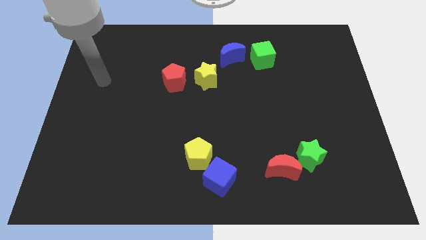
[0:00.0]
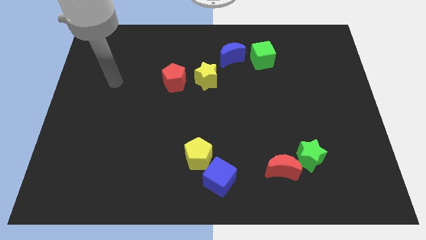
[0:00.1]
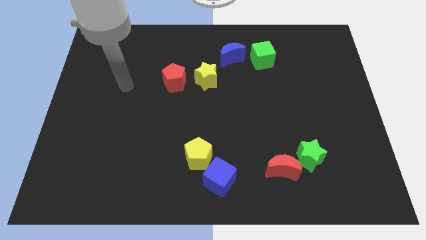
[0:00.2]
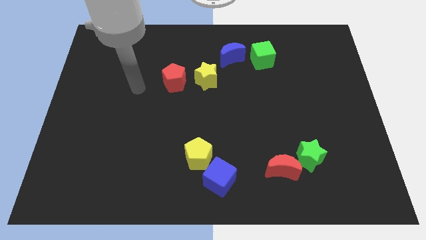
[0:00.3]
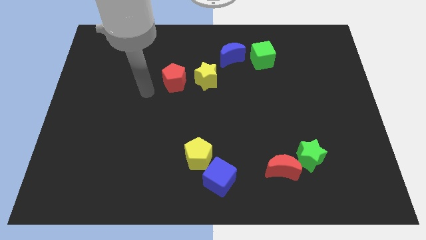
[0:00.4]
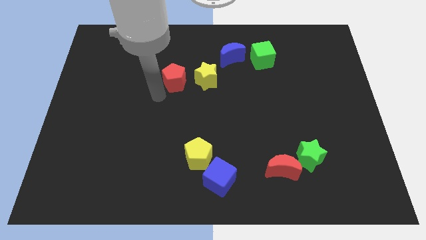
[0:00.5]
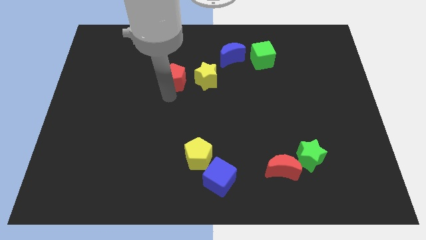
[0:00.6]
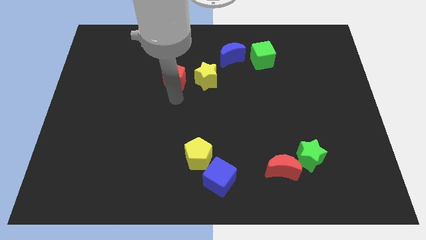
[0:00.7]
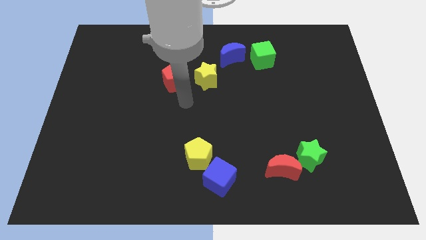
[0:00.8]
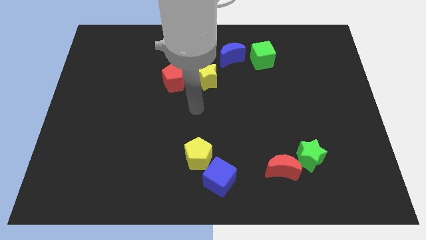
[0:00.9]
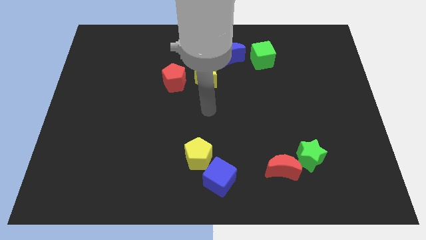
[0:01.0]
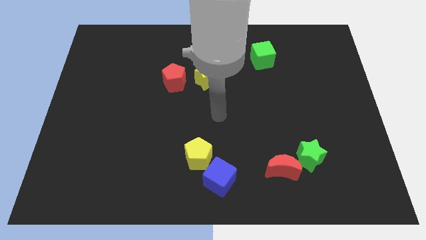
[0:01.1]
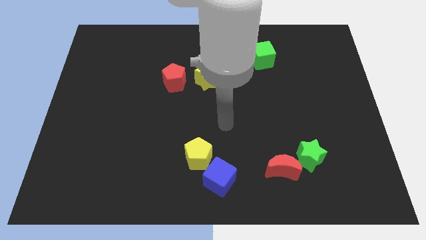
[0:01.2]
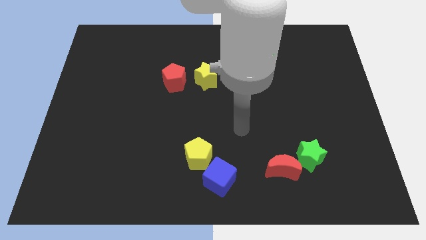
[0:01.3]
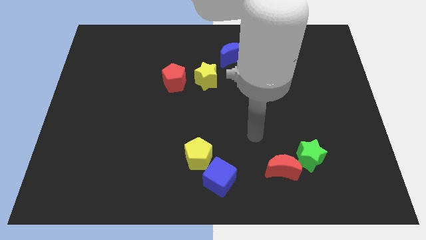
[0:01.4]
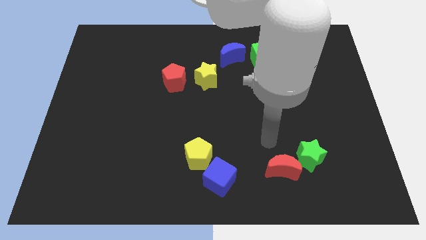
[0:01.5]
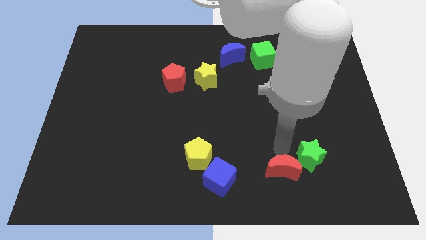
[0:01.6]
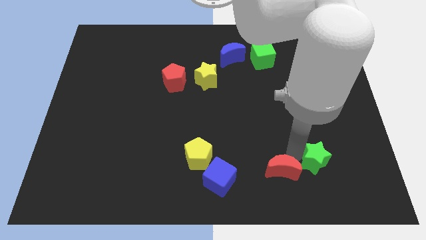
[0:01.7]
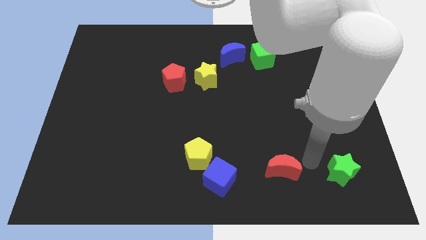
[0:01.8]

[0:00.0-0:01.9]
move the red moon away from the green star

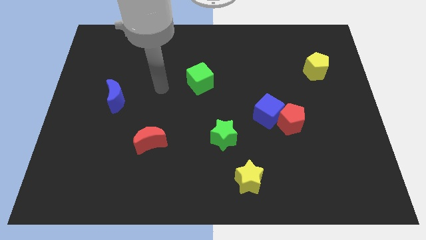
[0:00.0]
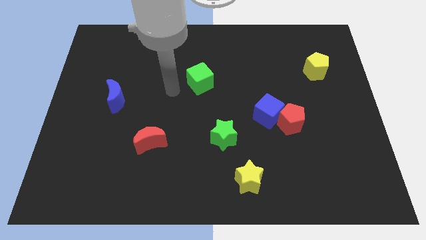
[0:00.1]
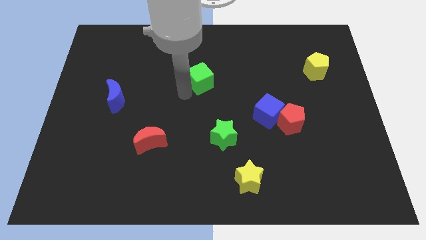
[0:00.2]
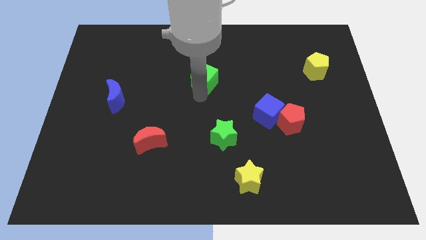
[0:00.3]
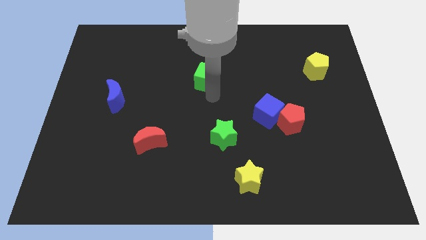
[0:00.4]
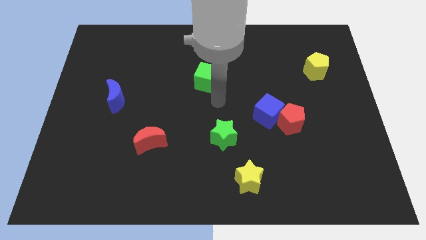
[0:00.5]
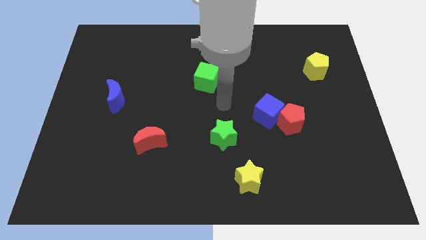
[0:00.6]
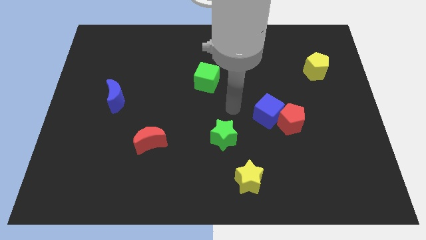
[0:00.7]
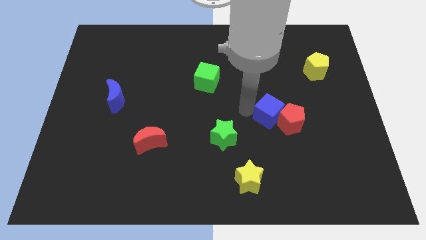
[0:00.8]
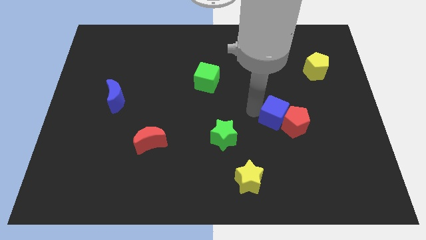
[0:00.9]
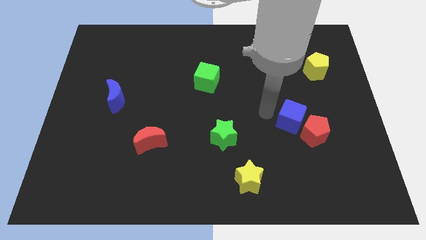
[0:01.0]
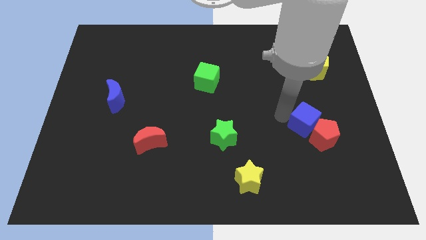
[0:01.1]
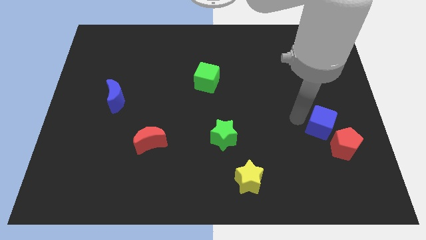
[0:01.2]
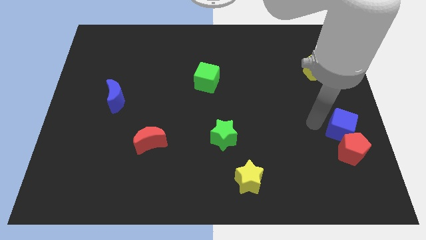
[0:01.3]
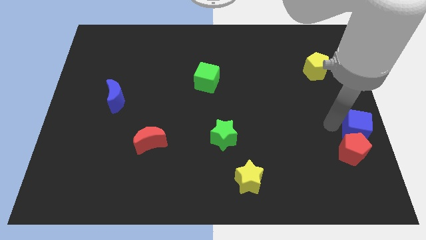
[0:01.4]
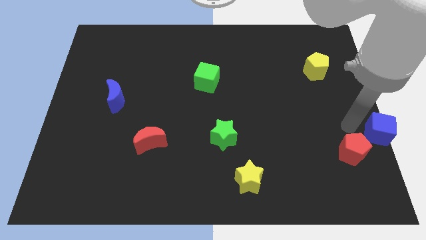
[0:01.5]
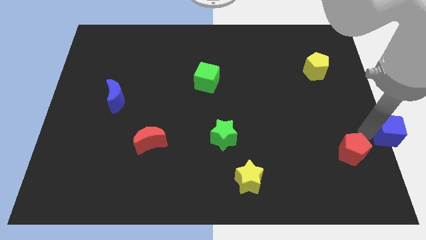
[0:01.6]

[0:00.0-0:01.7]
move the red pentagon away from the blue cube

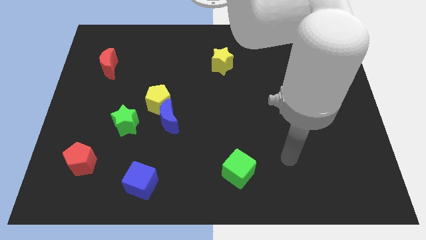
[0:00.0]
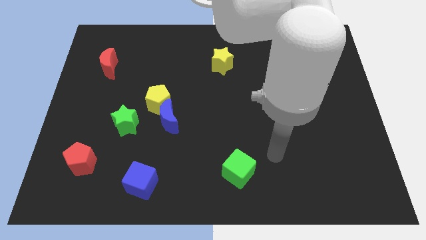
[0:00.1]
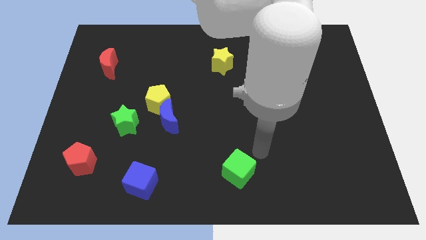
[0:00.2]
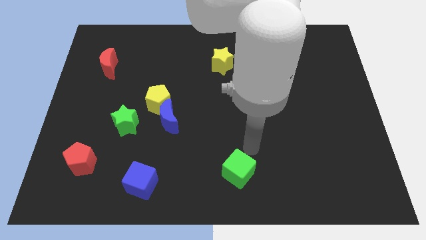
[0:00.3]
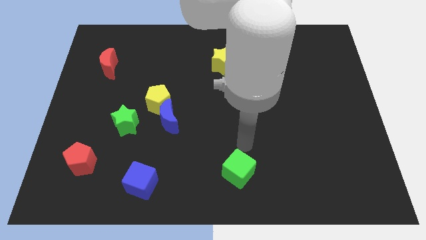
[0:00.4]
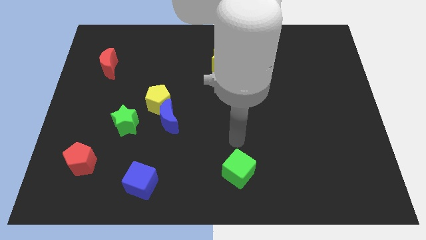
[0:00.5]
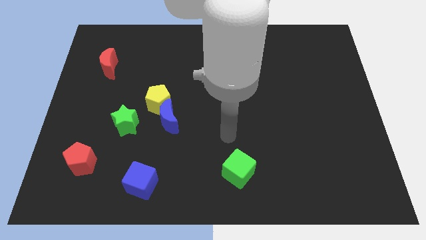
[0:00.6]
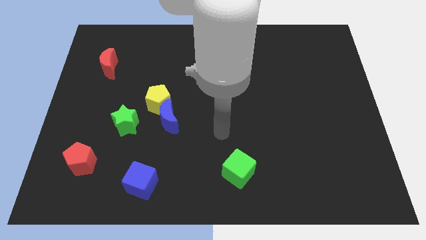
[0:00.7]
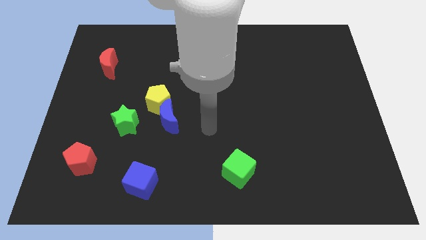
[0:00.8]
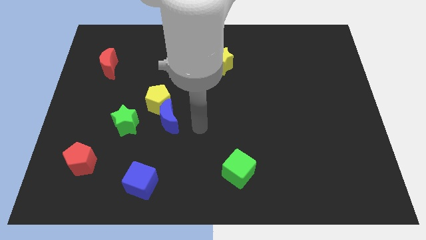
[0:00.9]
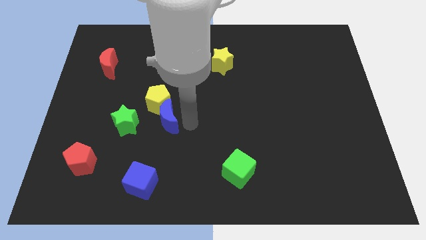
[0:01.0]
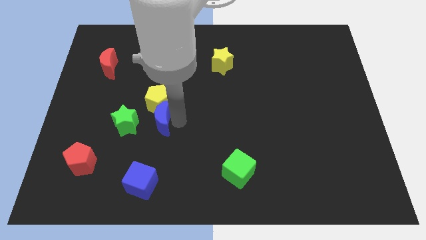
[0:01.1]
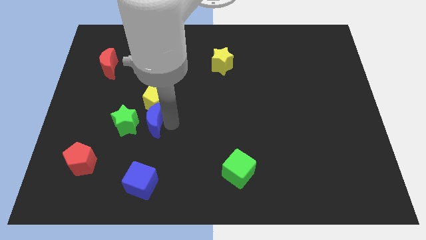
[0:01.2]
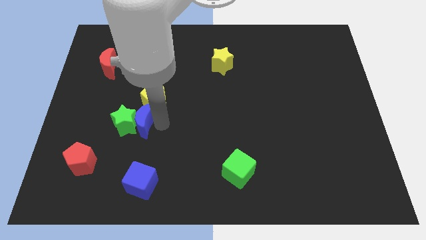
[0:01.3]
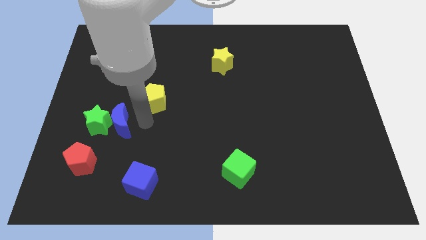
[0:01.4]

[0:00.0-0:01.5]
separate the yellow pentagon from the blue moon and green star

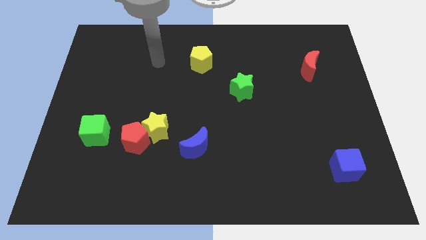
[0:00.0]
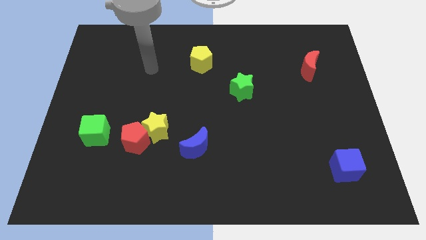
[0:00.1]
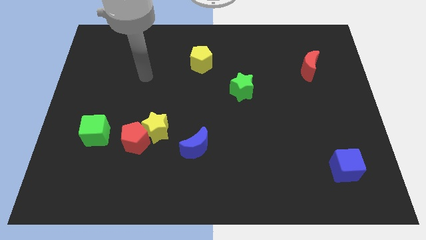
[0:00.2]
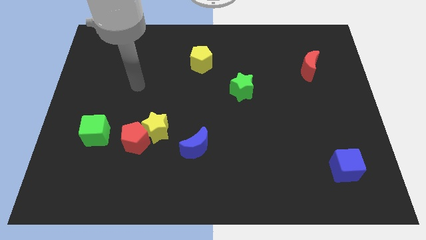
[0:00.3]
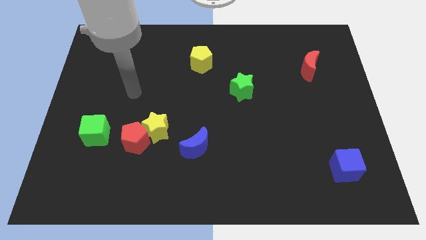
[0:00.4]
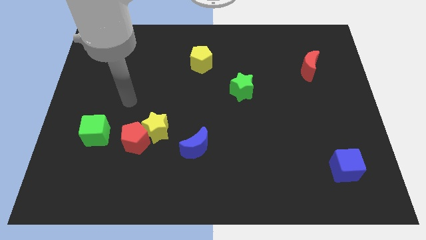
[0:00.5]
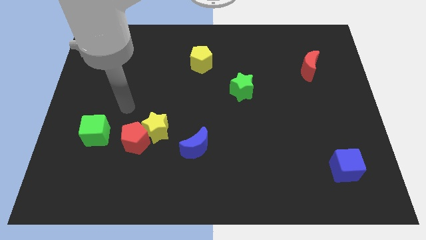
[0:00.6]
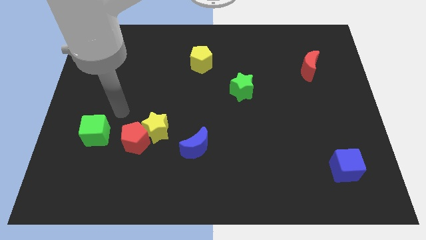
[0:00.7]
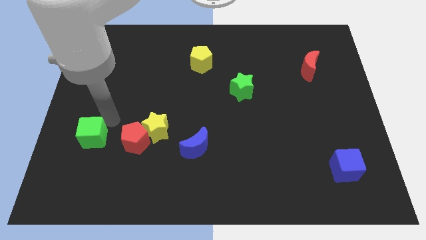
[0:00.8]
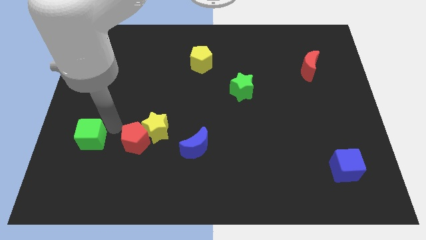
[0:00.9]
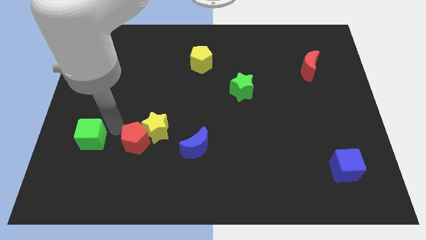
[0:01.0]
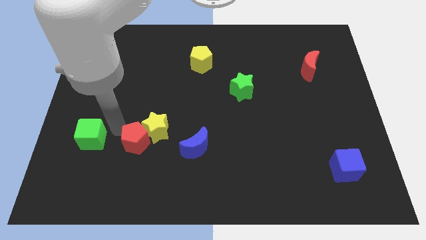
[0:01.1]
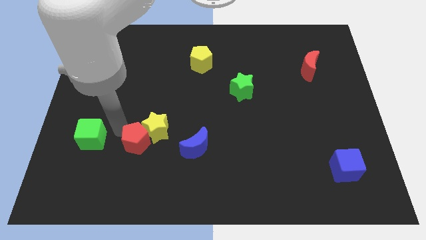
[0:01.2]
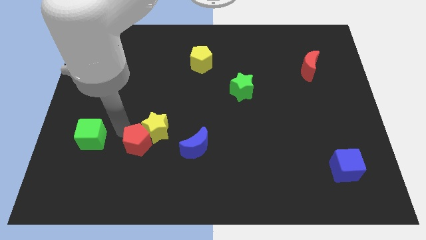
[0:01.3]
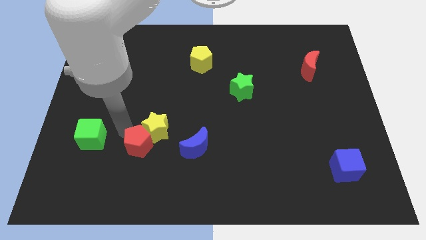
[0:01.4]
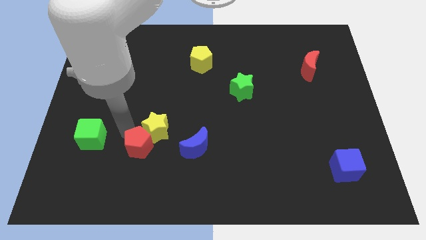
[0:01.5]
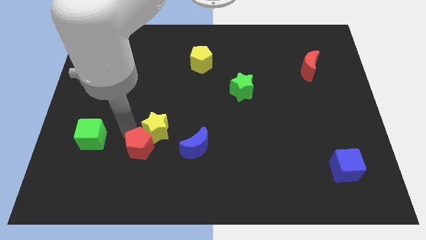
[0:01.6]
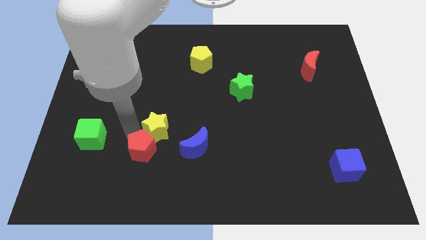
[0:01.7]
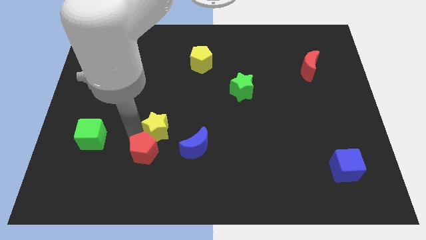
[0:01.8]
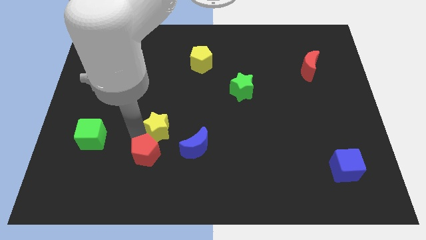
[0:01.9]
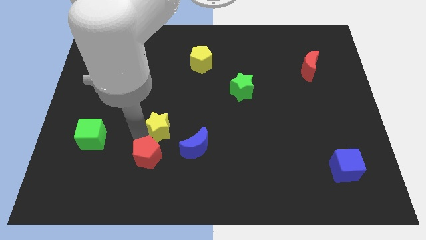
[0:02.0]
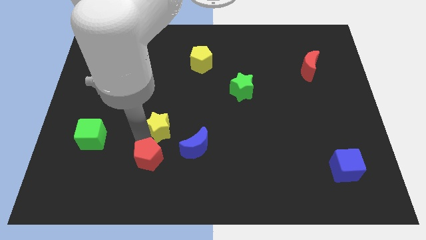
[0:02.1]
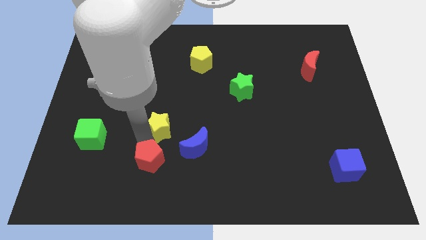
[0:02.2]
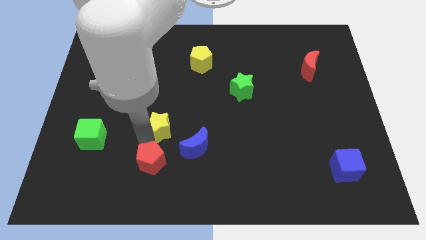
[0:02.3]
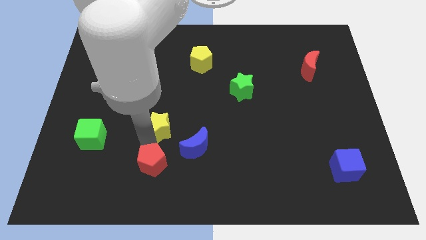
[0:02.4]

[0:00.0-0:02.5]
pull the red pentagon apart from the yellow star and green cube

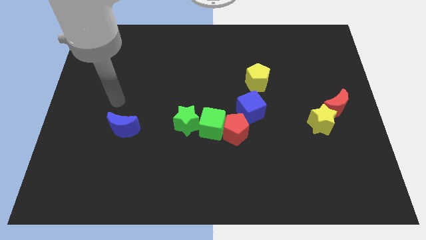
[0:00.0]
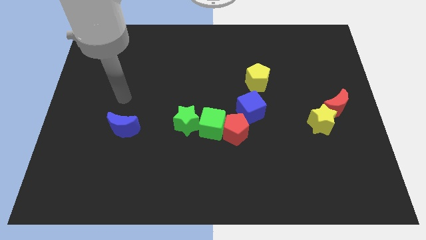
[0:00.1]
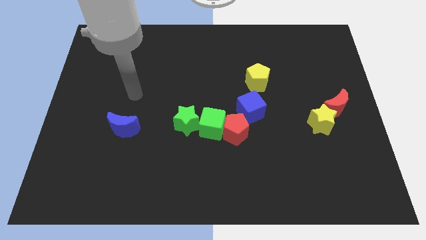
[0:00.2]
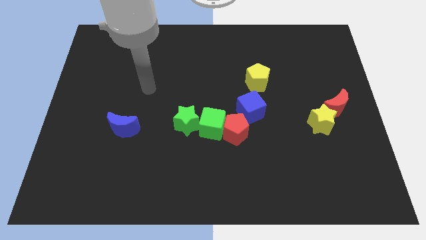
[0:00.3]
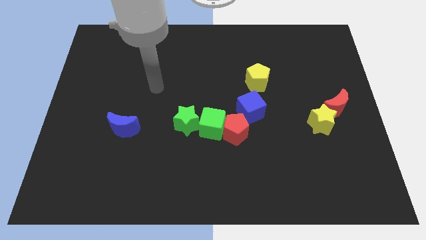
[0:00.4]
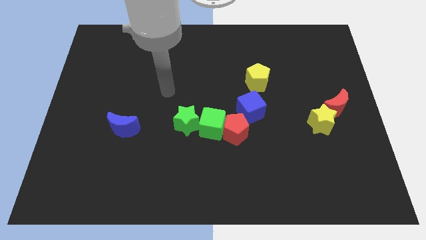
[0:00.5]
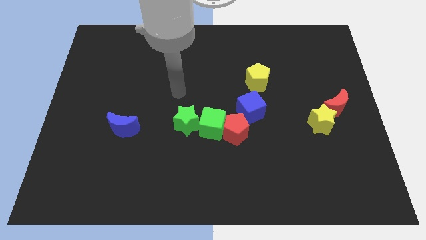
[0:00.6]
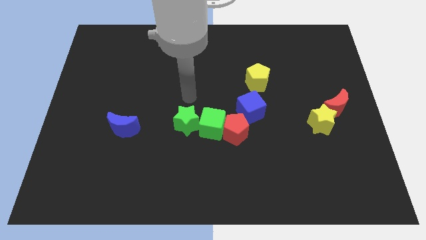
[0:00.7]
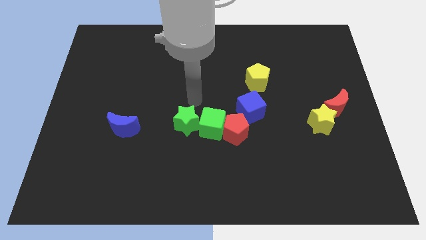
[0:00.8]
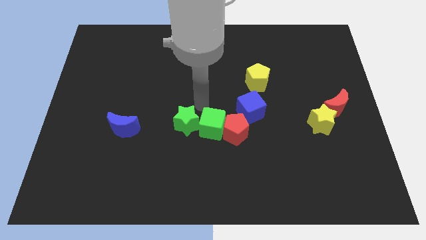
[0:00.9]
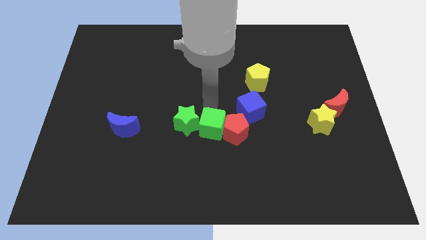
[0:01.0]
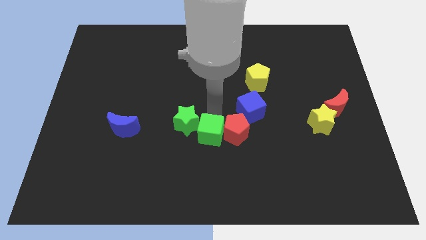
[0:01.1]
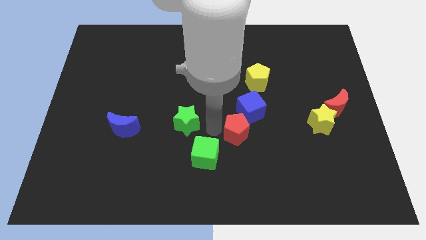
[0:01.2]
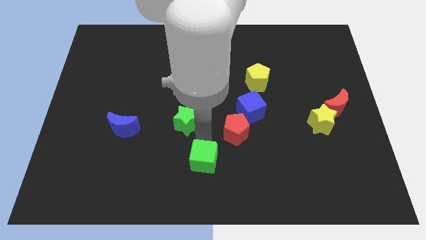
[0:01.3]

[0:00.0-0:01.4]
pull the green star apart from the green cube

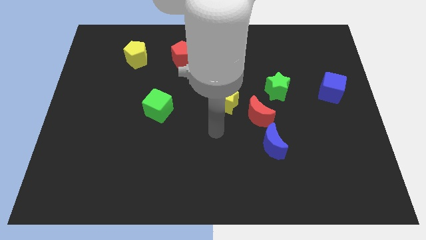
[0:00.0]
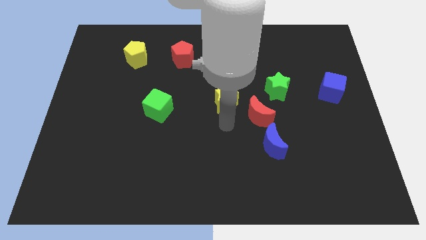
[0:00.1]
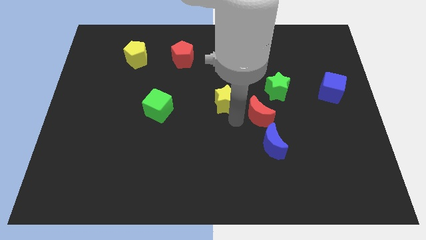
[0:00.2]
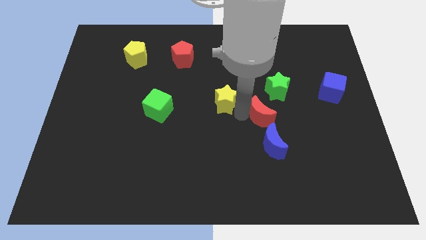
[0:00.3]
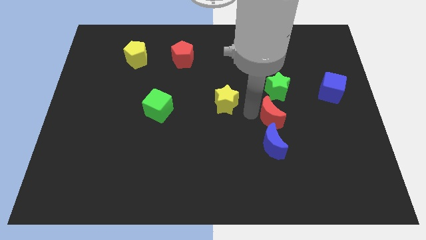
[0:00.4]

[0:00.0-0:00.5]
move the yellow star away from the red moon
